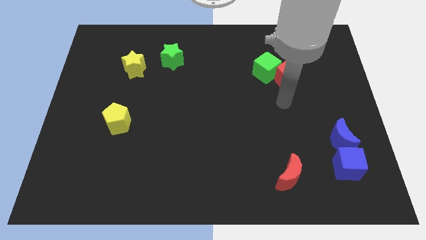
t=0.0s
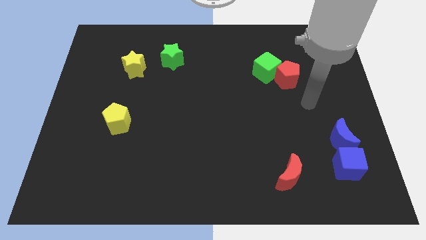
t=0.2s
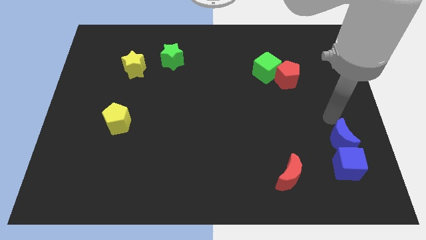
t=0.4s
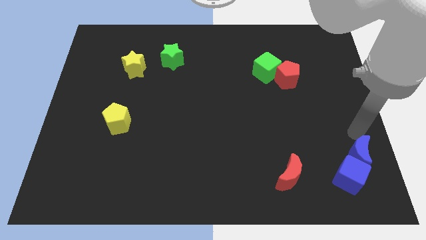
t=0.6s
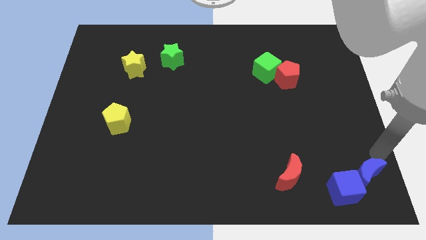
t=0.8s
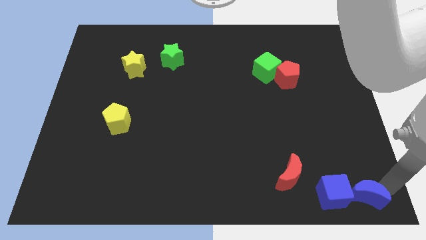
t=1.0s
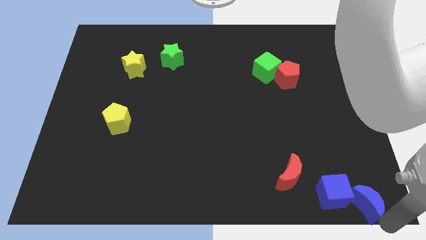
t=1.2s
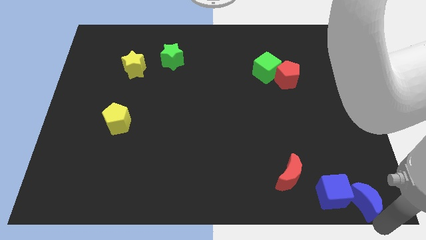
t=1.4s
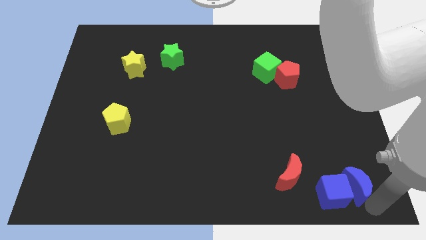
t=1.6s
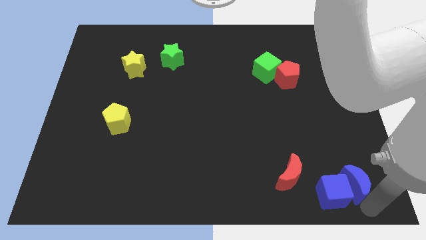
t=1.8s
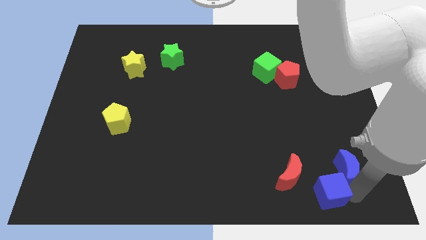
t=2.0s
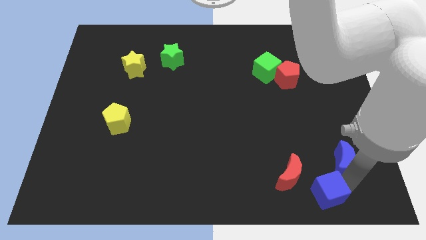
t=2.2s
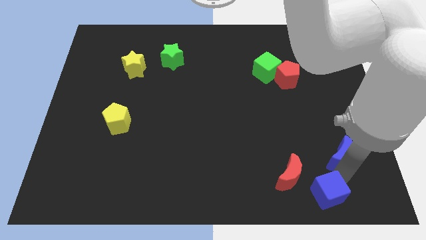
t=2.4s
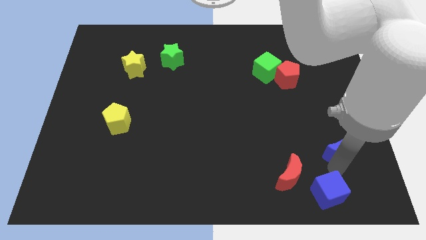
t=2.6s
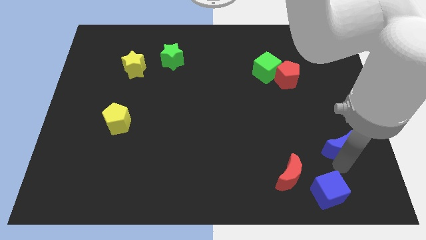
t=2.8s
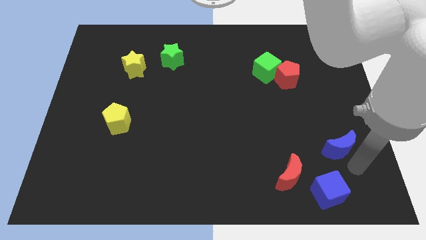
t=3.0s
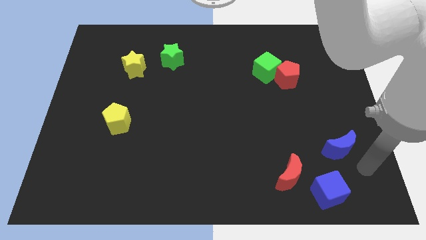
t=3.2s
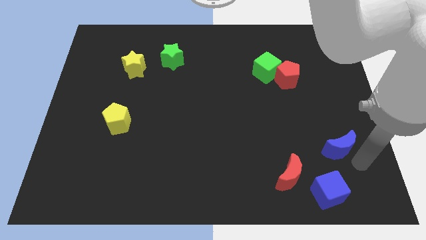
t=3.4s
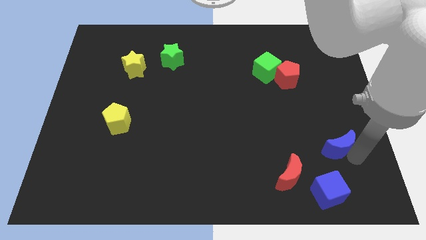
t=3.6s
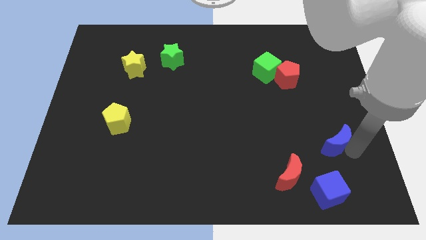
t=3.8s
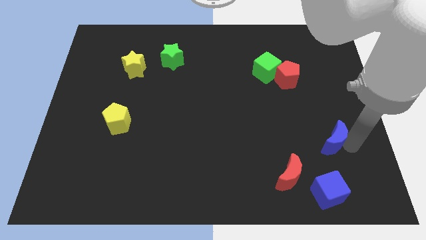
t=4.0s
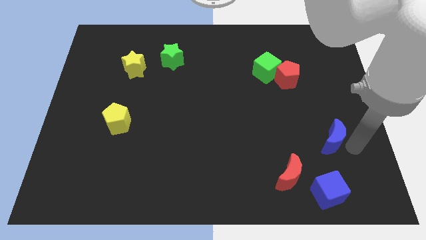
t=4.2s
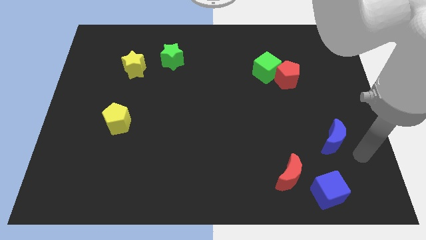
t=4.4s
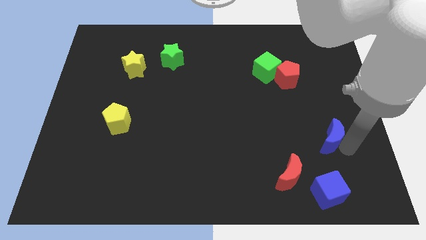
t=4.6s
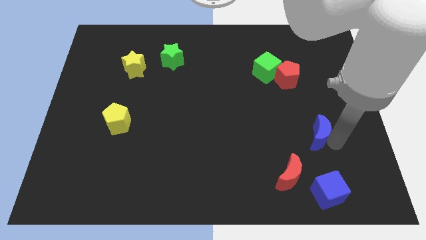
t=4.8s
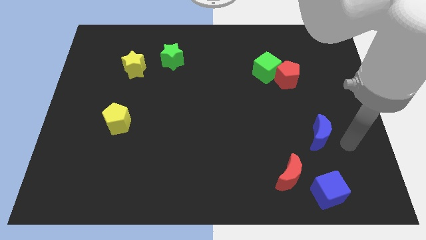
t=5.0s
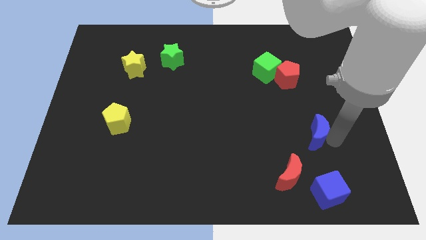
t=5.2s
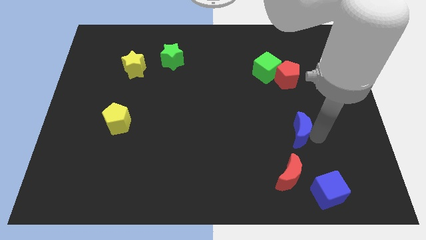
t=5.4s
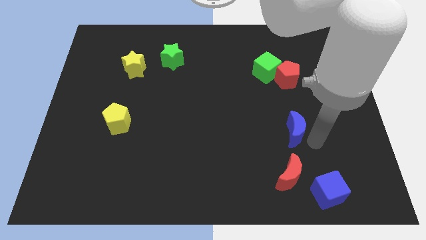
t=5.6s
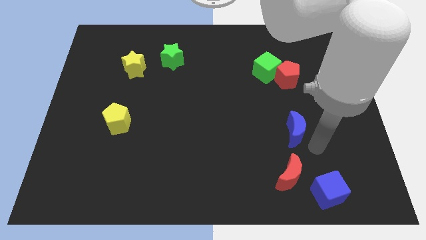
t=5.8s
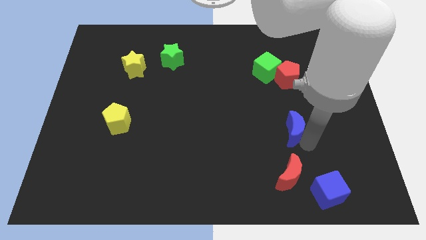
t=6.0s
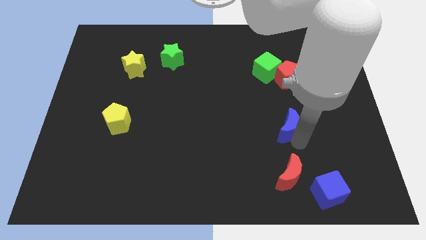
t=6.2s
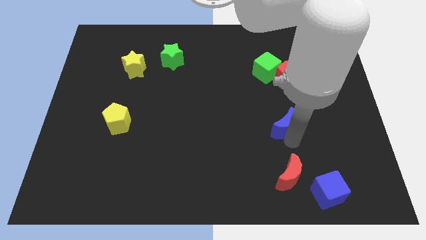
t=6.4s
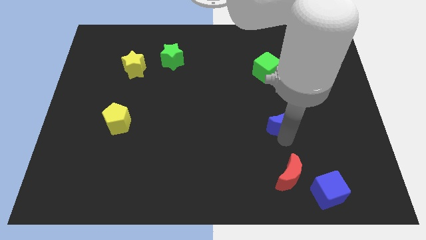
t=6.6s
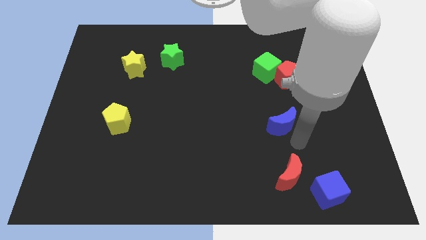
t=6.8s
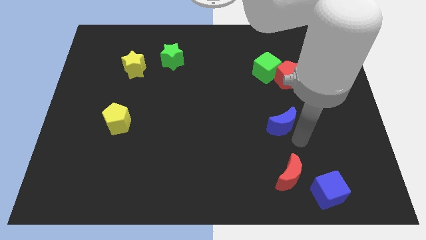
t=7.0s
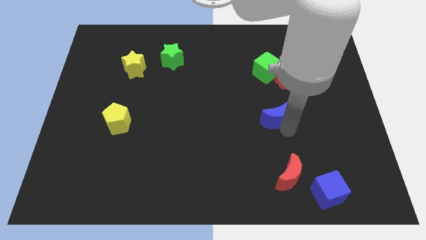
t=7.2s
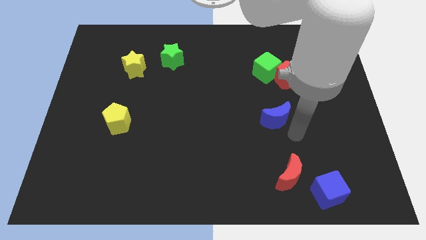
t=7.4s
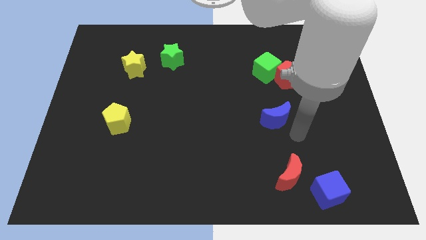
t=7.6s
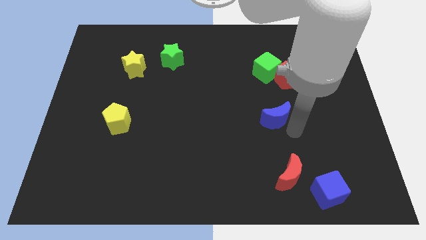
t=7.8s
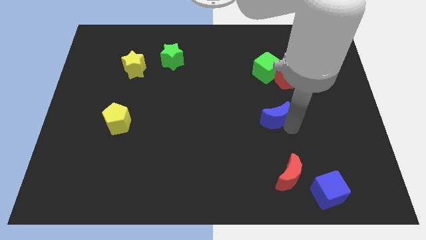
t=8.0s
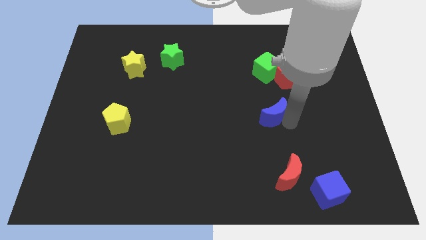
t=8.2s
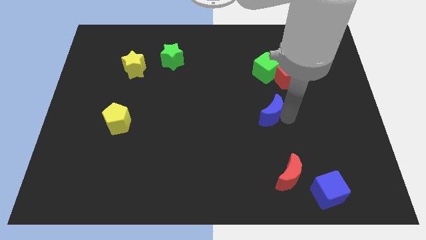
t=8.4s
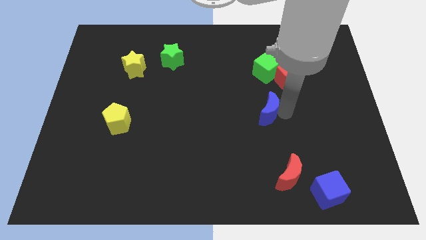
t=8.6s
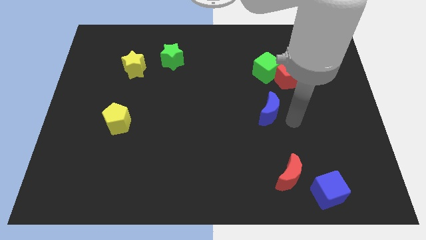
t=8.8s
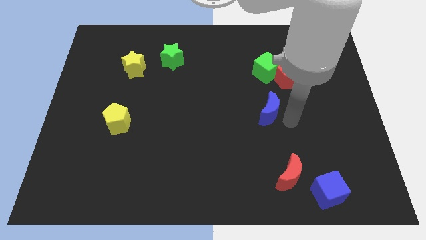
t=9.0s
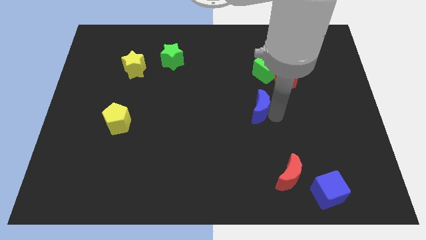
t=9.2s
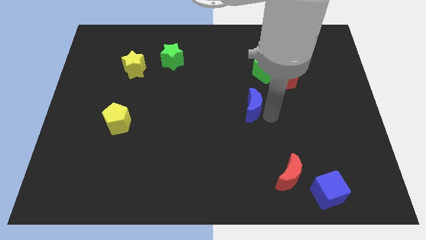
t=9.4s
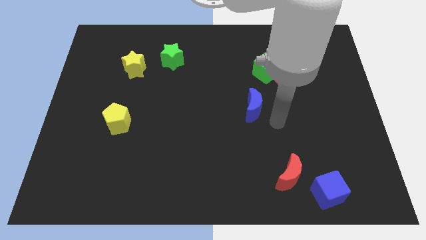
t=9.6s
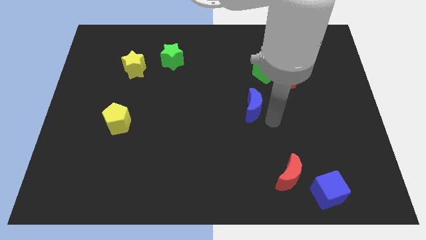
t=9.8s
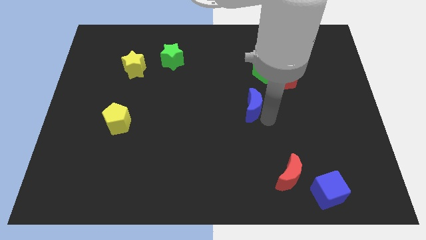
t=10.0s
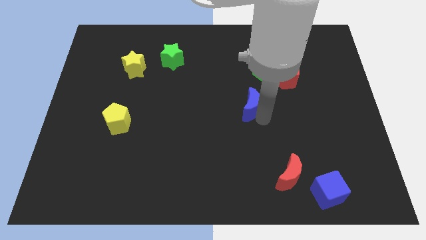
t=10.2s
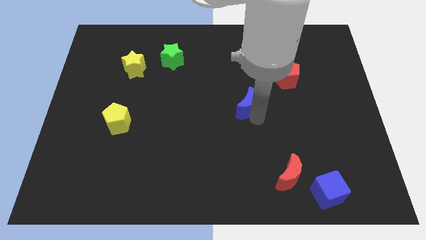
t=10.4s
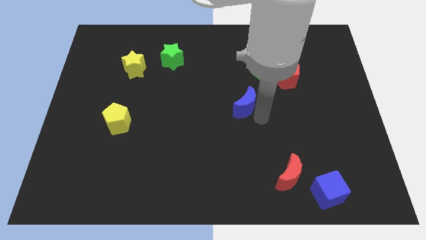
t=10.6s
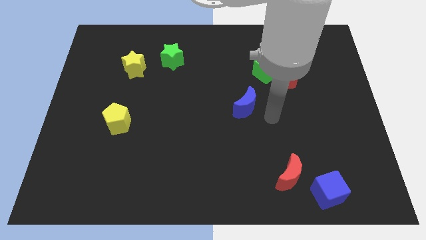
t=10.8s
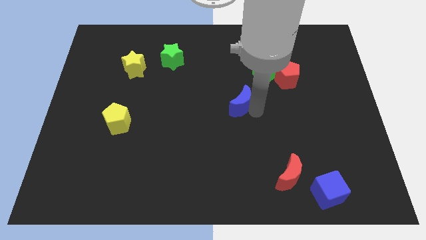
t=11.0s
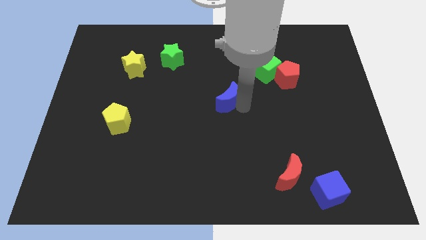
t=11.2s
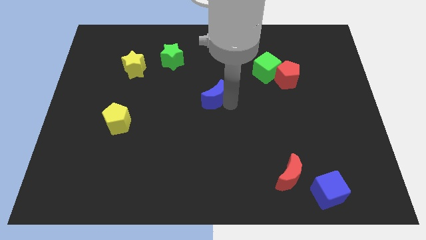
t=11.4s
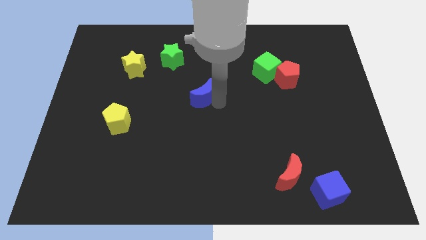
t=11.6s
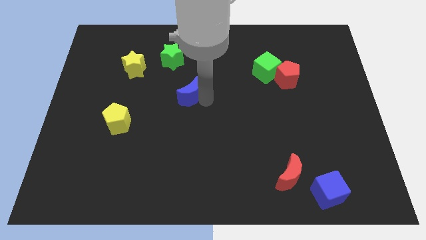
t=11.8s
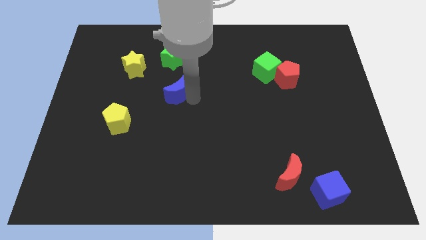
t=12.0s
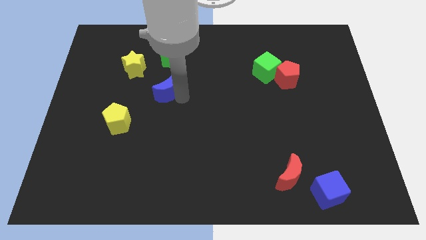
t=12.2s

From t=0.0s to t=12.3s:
move the blue moon to the bottom right side of the yellow star

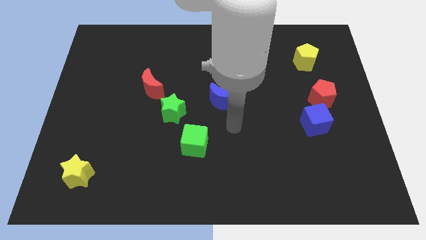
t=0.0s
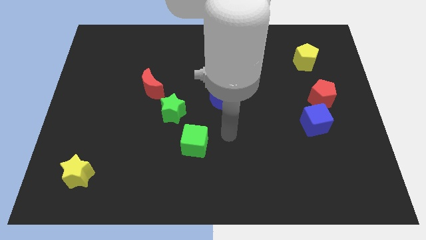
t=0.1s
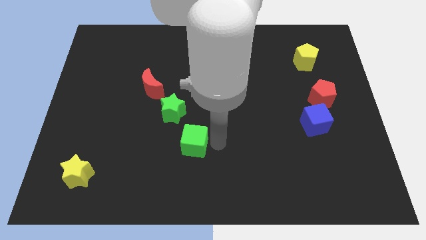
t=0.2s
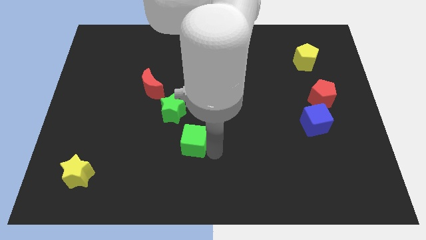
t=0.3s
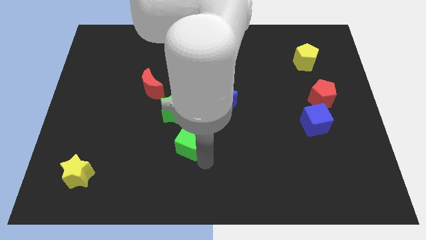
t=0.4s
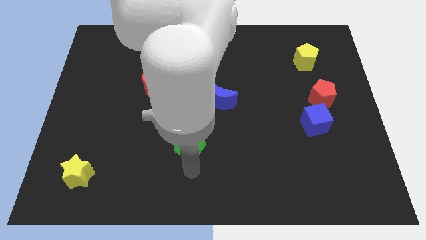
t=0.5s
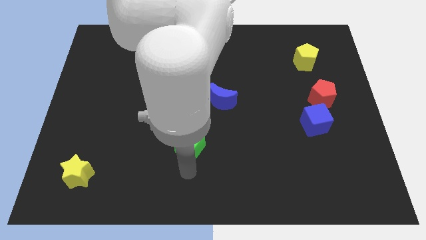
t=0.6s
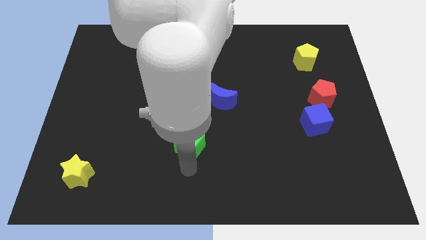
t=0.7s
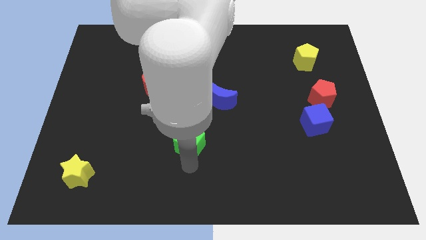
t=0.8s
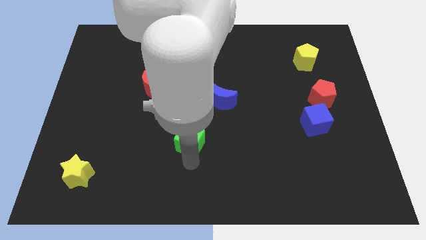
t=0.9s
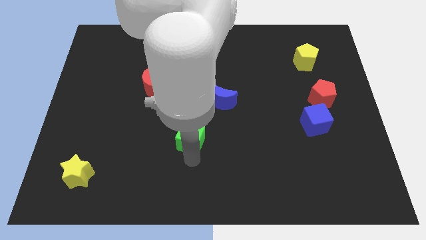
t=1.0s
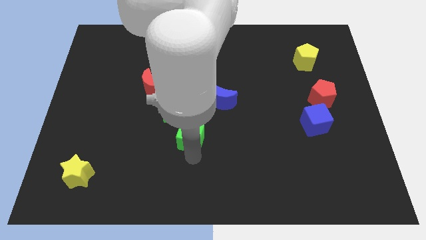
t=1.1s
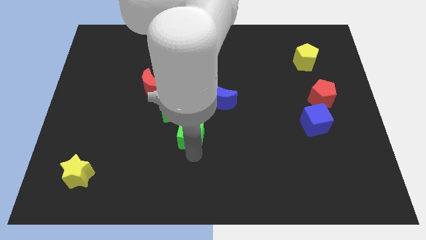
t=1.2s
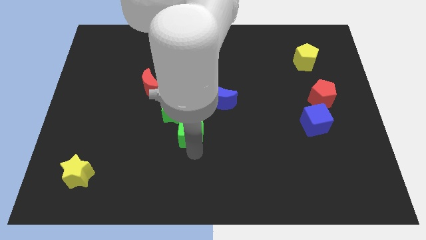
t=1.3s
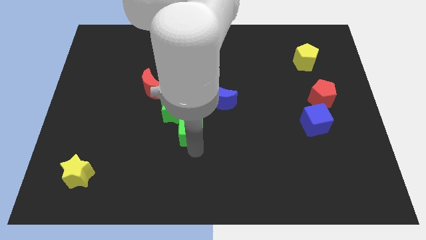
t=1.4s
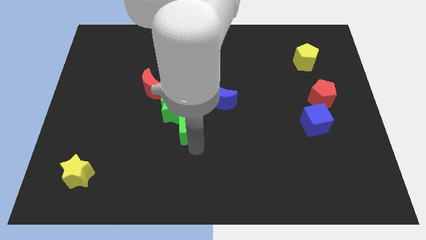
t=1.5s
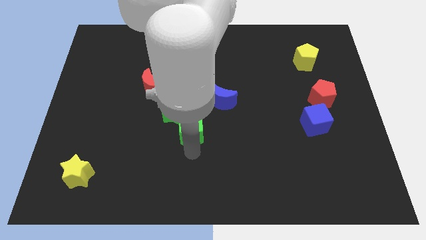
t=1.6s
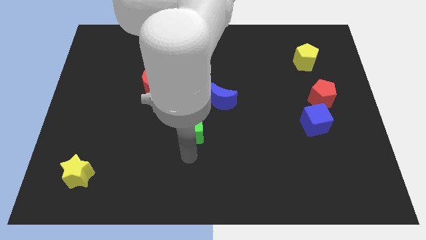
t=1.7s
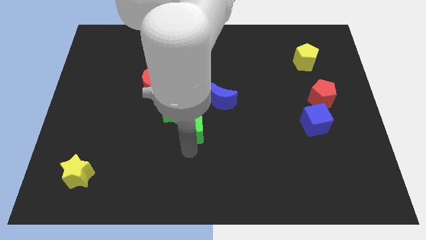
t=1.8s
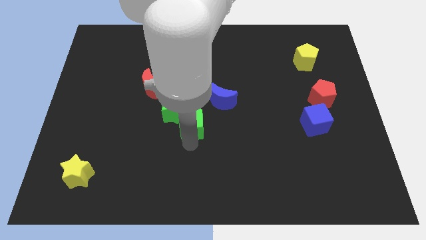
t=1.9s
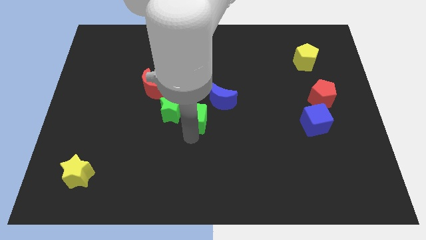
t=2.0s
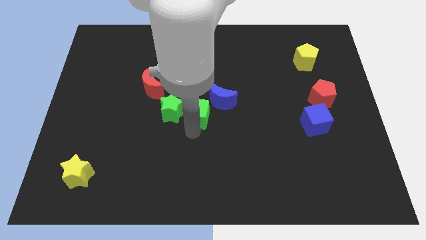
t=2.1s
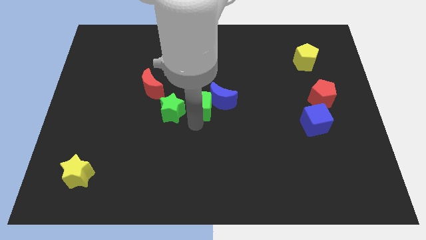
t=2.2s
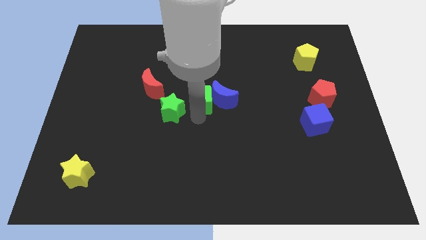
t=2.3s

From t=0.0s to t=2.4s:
slide the green cube to the top left of the blue moon
